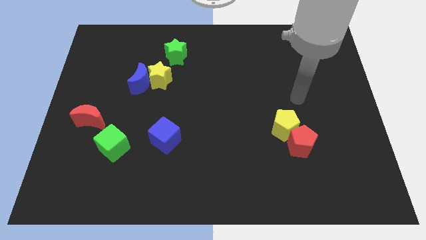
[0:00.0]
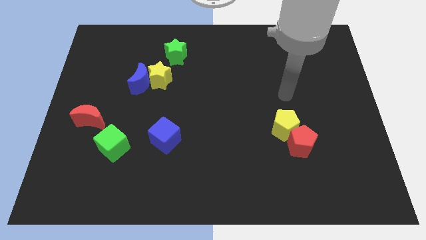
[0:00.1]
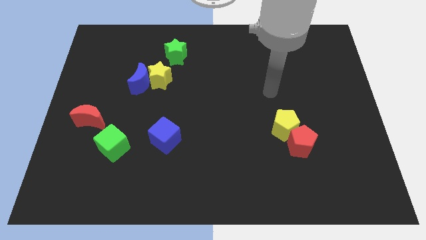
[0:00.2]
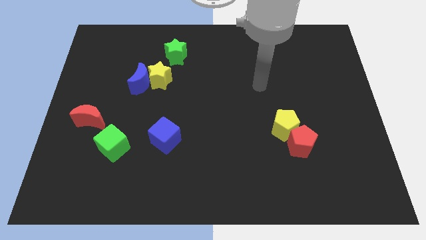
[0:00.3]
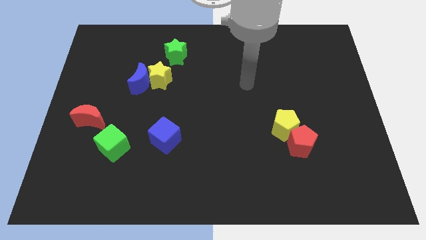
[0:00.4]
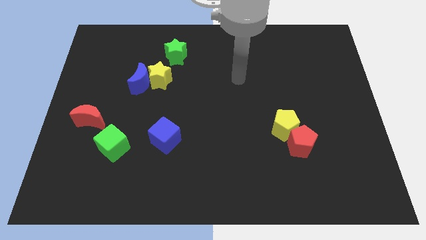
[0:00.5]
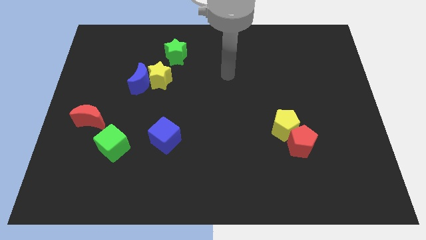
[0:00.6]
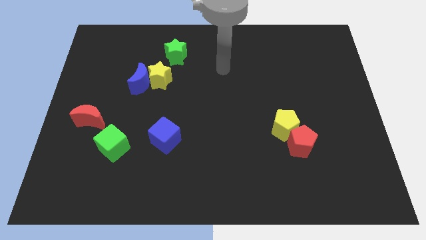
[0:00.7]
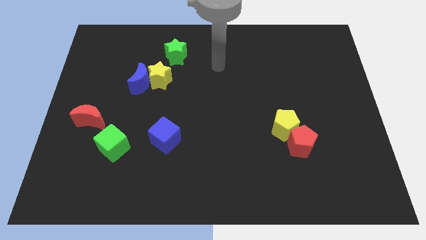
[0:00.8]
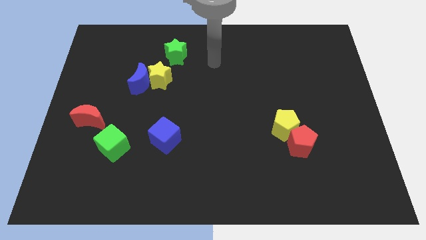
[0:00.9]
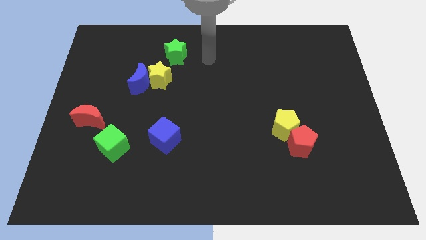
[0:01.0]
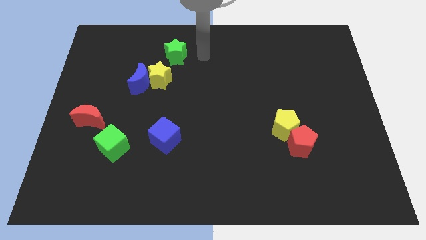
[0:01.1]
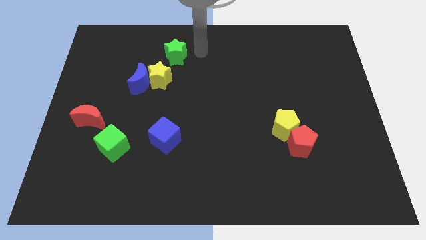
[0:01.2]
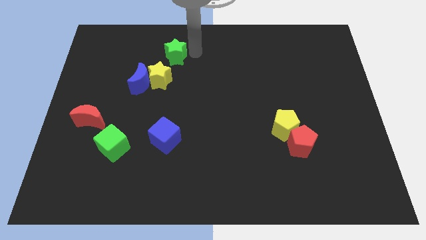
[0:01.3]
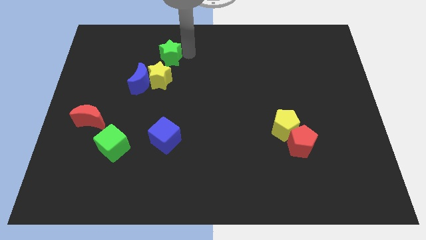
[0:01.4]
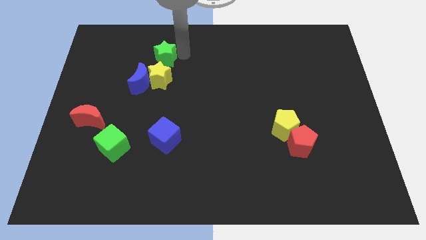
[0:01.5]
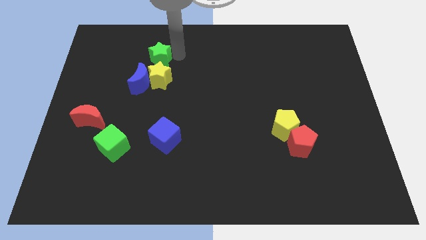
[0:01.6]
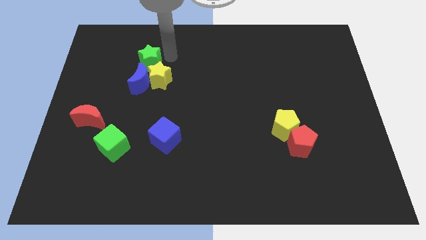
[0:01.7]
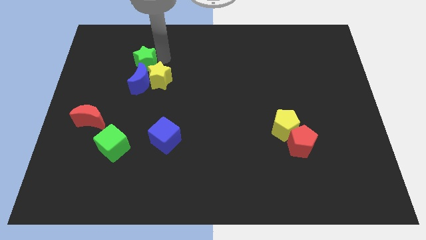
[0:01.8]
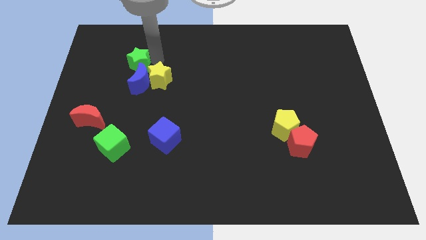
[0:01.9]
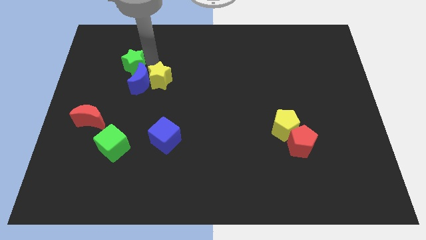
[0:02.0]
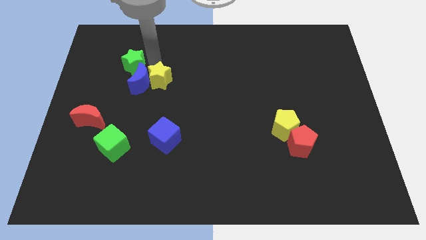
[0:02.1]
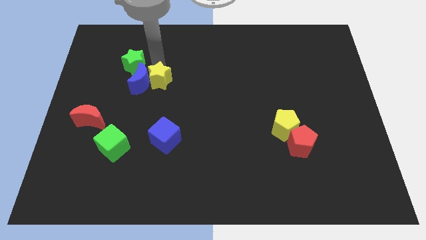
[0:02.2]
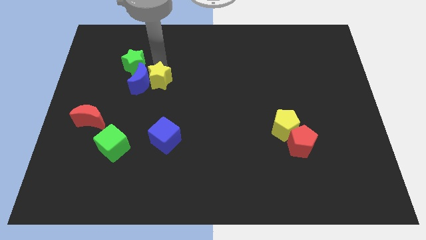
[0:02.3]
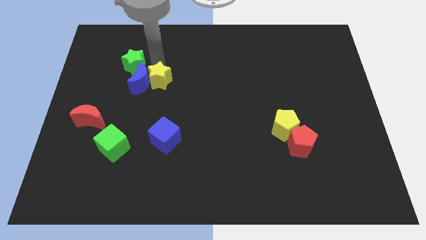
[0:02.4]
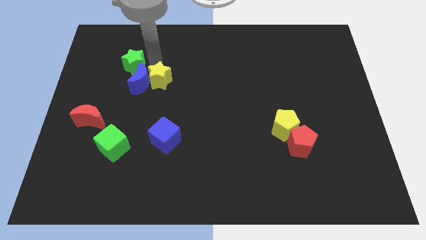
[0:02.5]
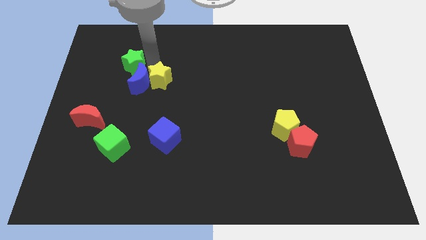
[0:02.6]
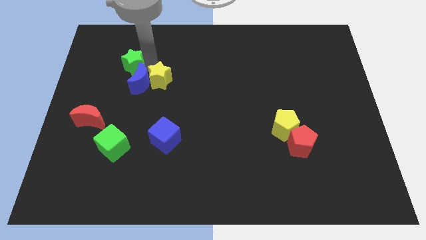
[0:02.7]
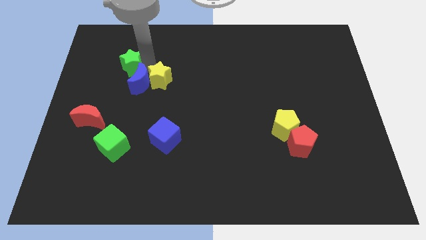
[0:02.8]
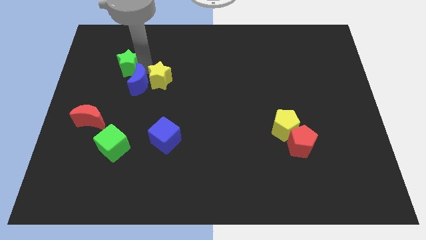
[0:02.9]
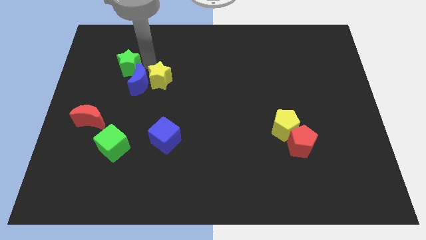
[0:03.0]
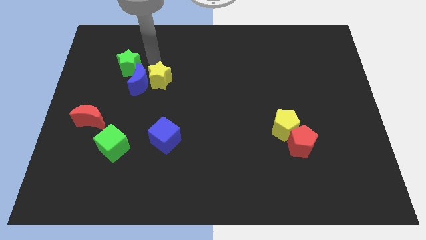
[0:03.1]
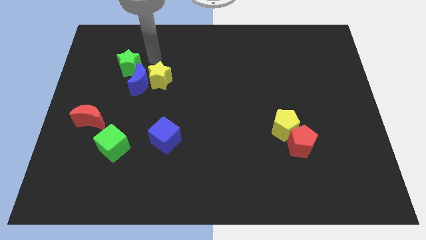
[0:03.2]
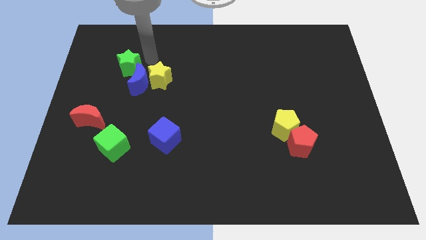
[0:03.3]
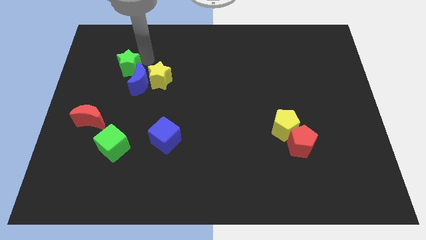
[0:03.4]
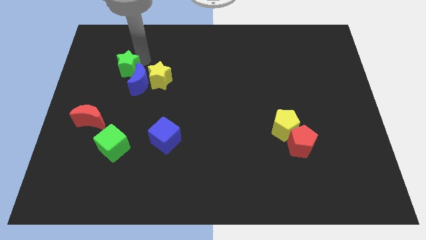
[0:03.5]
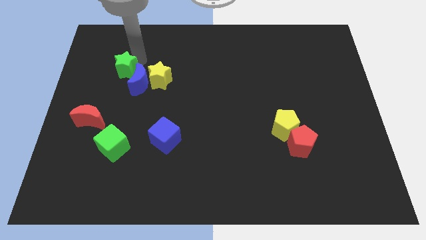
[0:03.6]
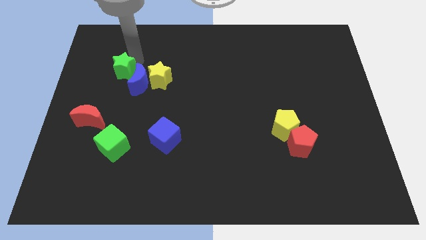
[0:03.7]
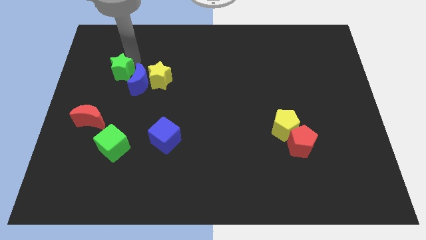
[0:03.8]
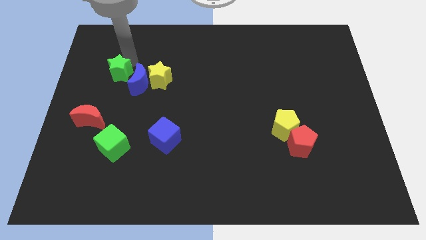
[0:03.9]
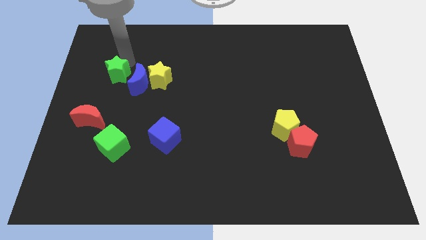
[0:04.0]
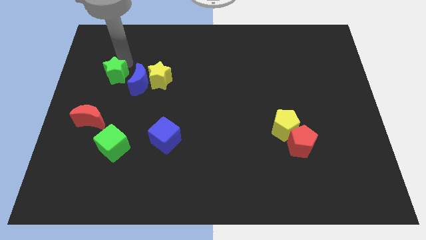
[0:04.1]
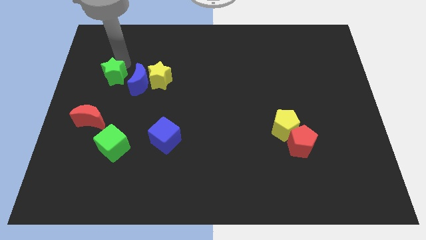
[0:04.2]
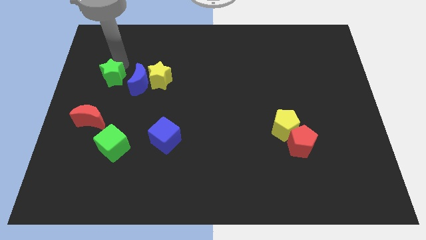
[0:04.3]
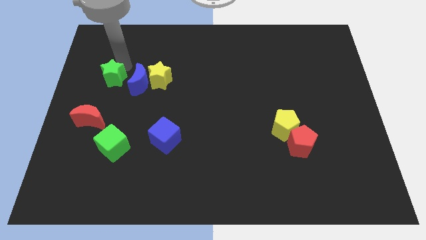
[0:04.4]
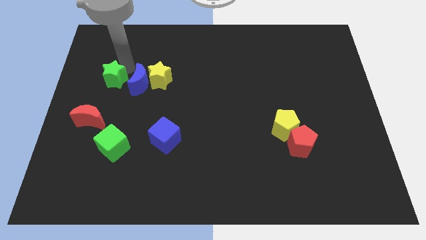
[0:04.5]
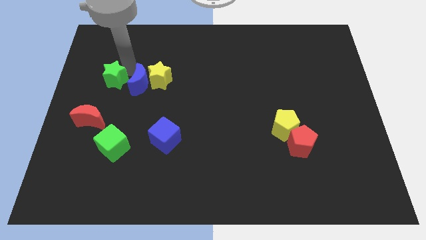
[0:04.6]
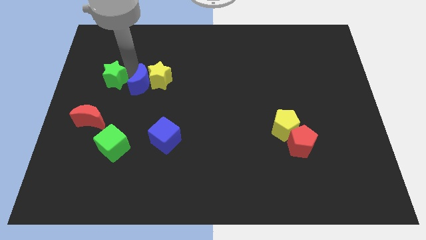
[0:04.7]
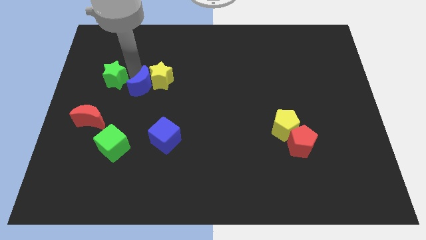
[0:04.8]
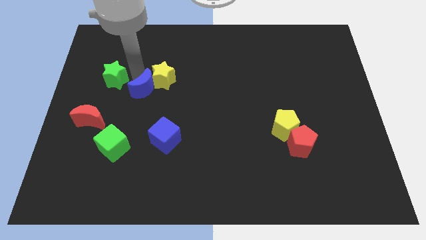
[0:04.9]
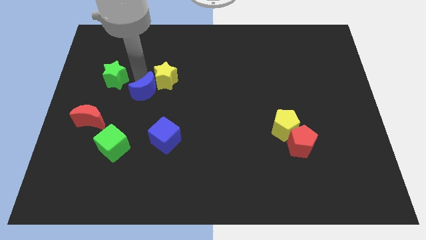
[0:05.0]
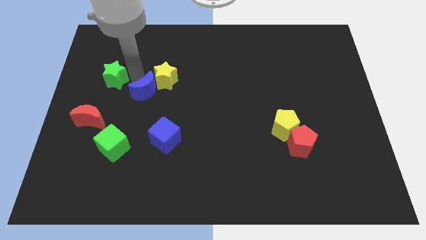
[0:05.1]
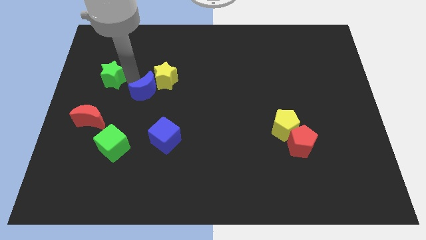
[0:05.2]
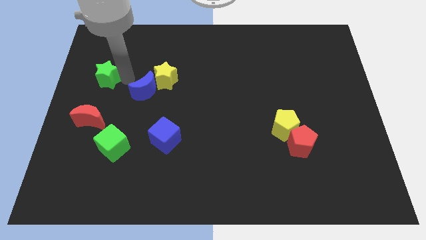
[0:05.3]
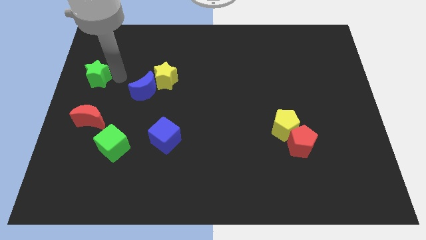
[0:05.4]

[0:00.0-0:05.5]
slide the green star to the center left

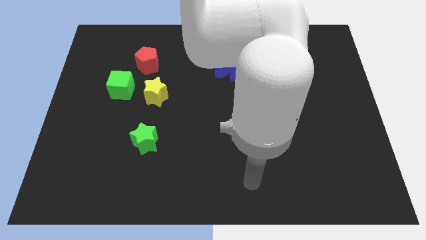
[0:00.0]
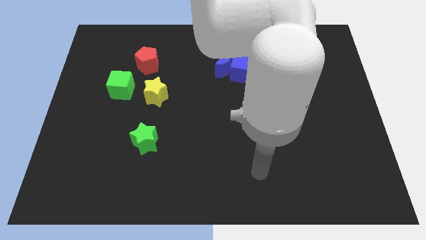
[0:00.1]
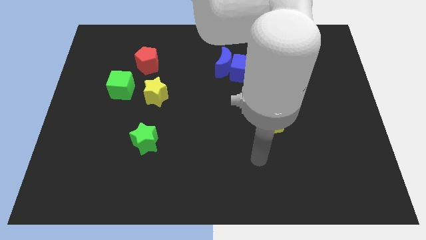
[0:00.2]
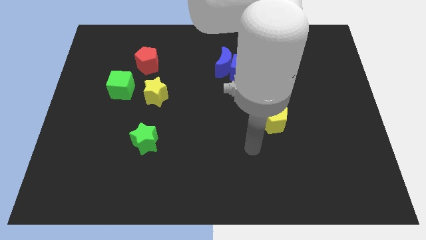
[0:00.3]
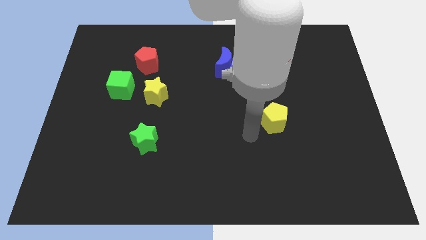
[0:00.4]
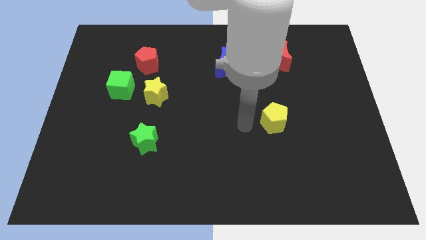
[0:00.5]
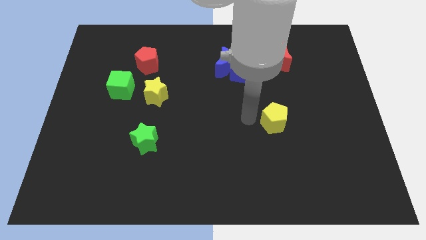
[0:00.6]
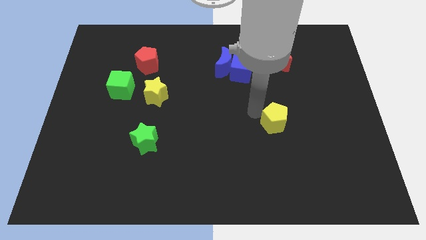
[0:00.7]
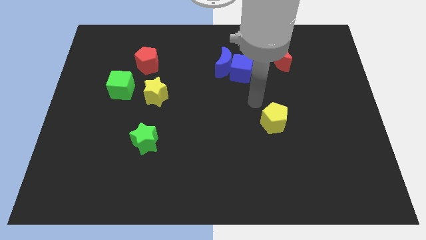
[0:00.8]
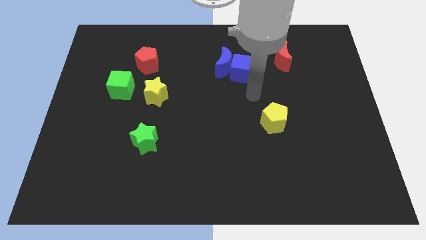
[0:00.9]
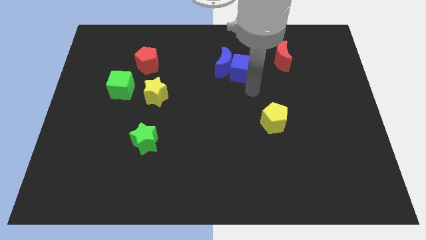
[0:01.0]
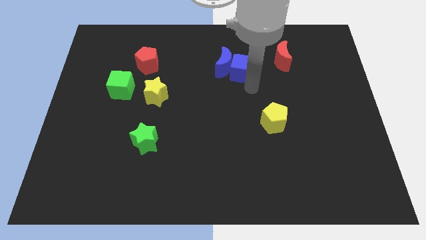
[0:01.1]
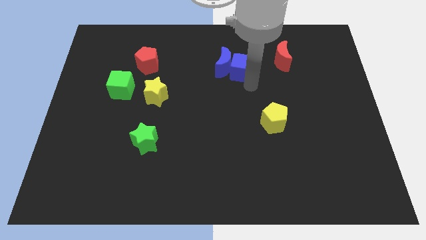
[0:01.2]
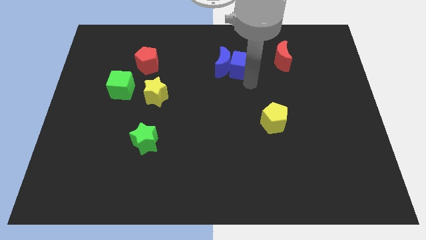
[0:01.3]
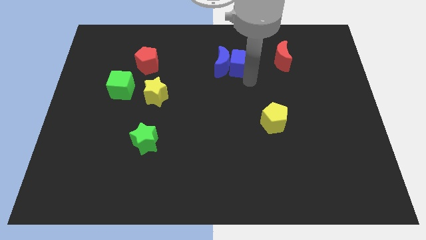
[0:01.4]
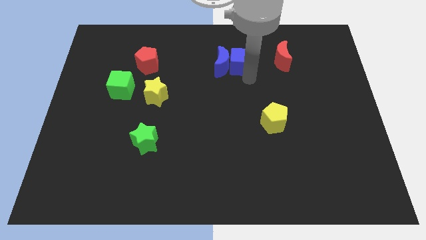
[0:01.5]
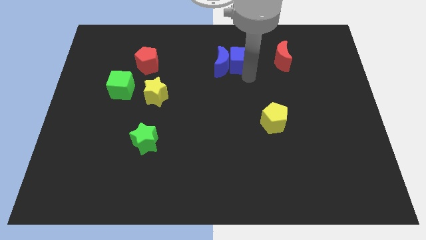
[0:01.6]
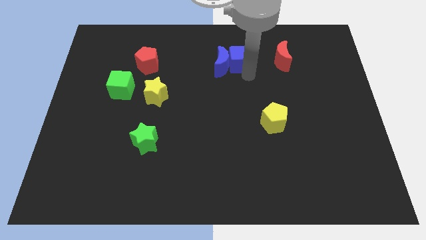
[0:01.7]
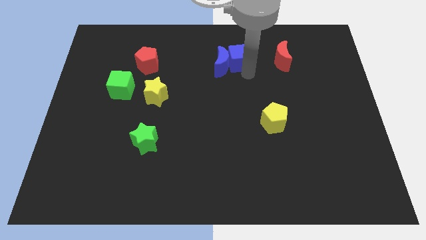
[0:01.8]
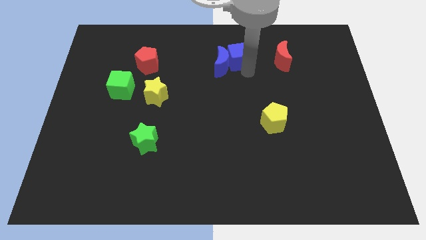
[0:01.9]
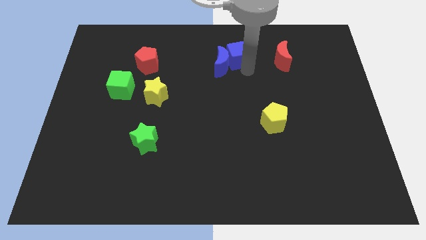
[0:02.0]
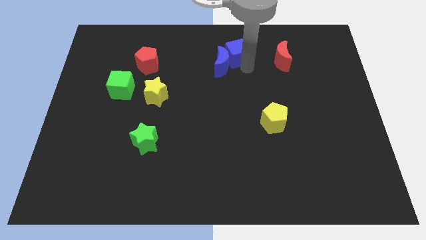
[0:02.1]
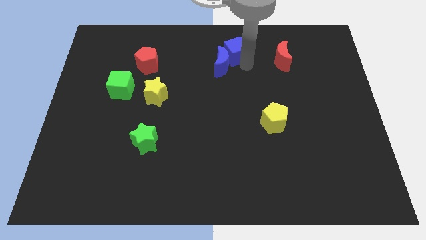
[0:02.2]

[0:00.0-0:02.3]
put the blue cube to the top
